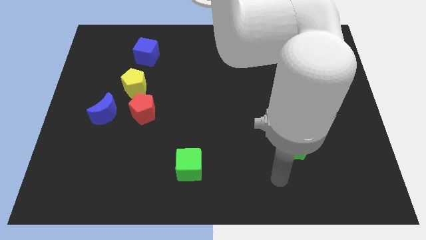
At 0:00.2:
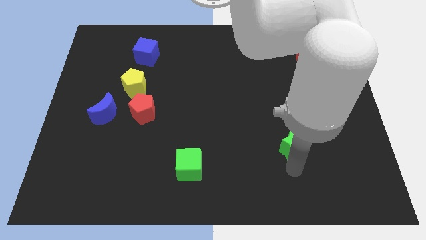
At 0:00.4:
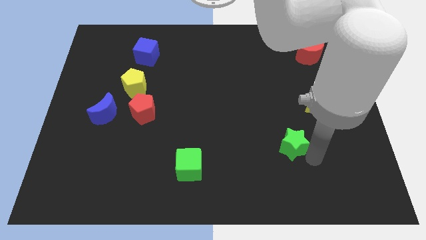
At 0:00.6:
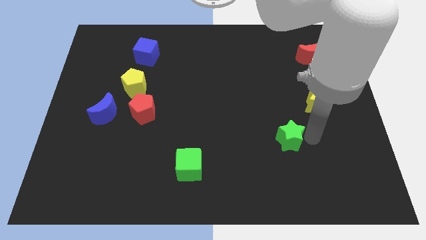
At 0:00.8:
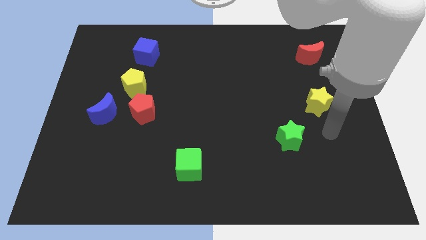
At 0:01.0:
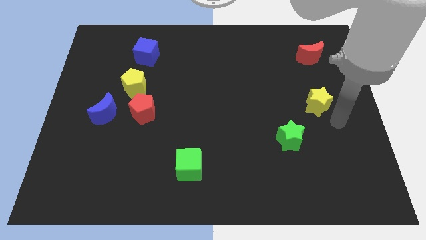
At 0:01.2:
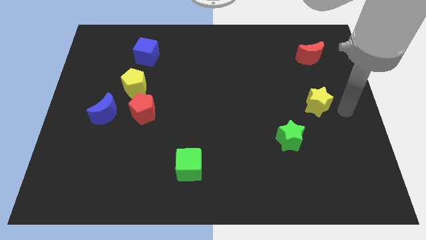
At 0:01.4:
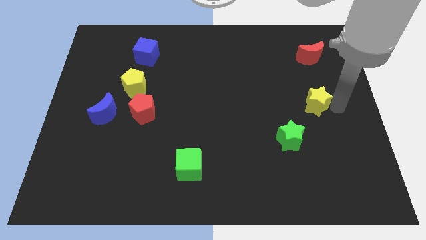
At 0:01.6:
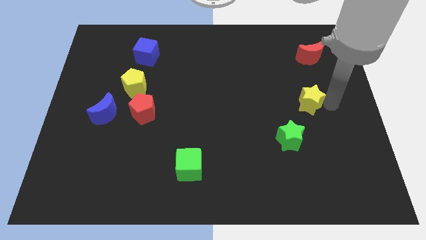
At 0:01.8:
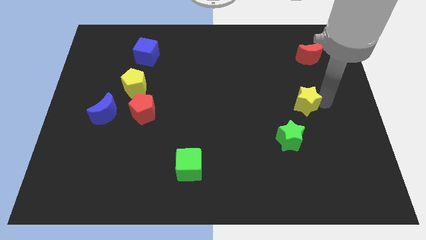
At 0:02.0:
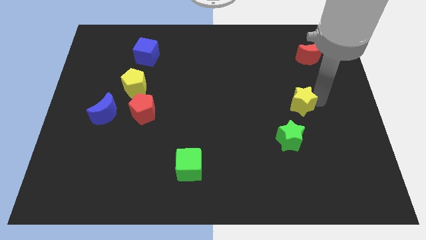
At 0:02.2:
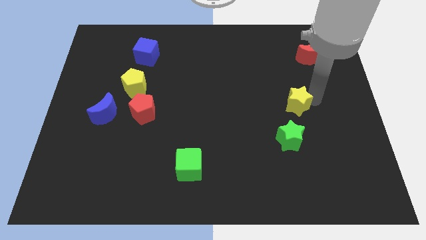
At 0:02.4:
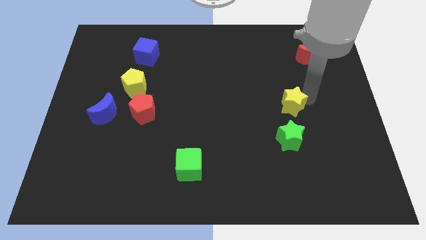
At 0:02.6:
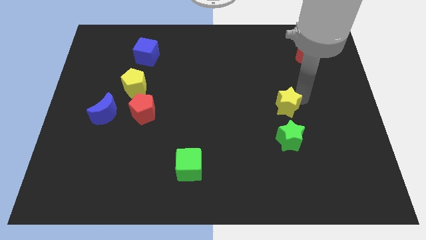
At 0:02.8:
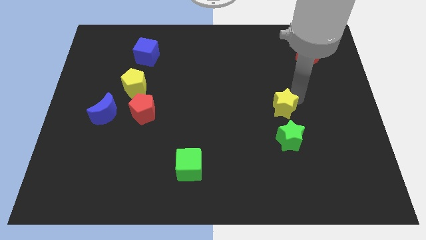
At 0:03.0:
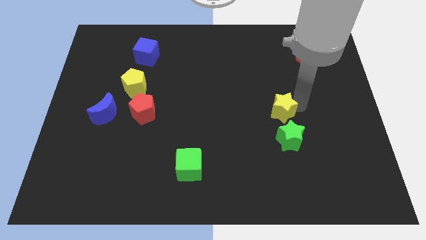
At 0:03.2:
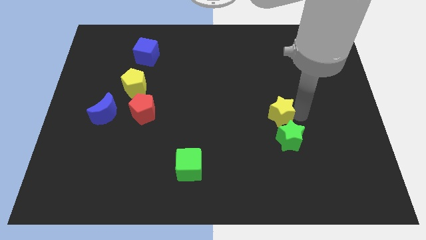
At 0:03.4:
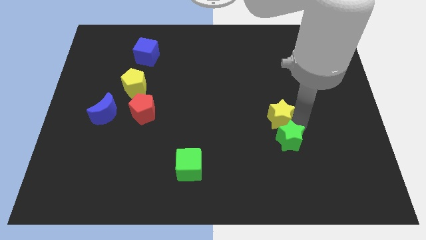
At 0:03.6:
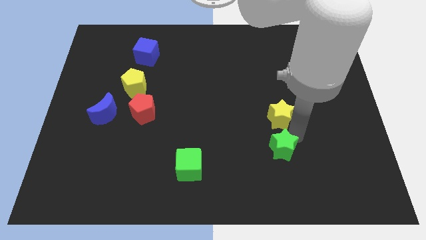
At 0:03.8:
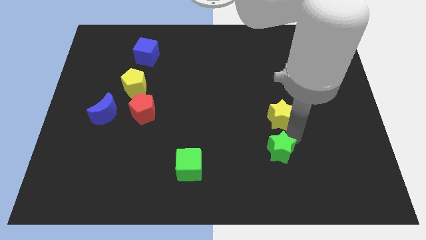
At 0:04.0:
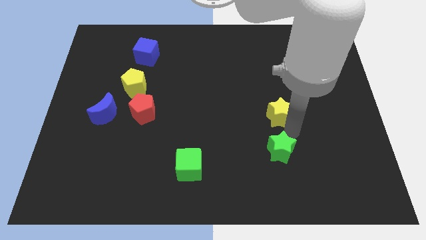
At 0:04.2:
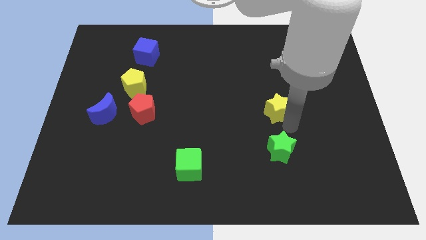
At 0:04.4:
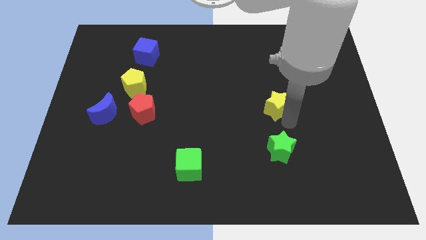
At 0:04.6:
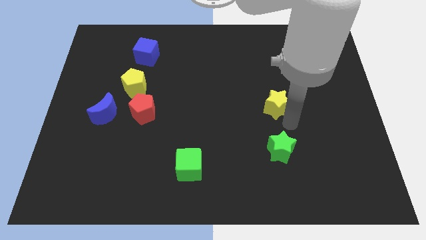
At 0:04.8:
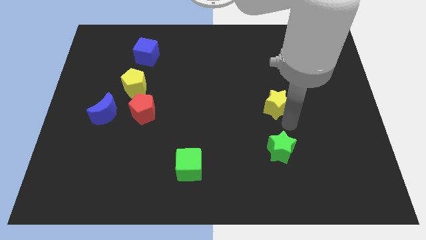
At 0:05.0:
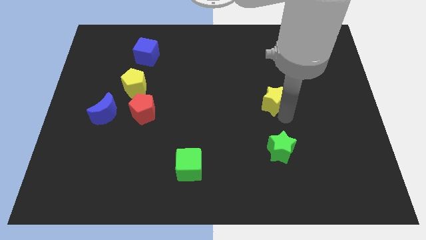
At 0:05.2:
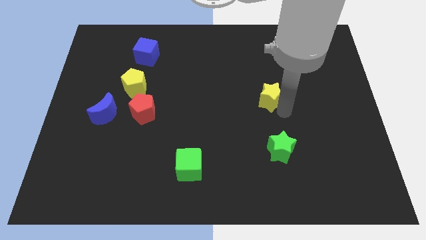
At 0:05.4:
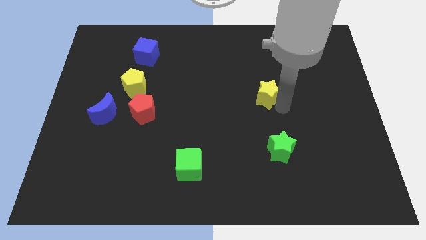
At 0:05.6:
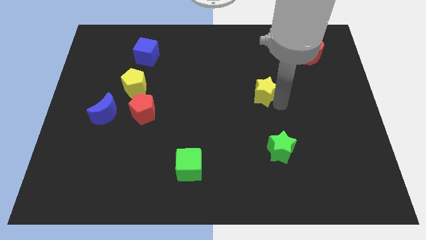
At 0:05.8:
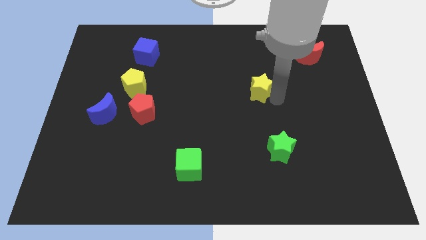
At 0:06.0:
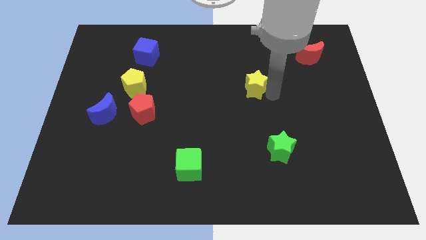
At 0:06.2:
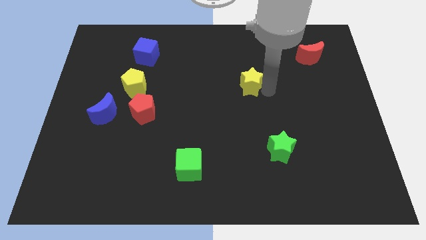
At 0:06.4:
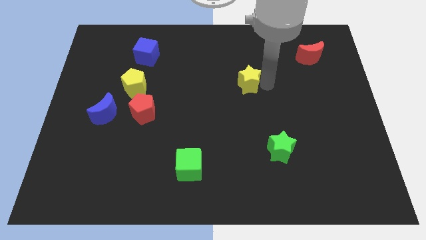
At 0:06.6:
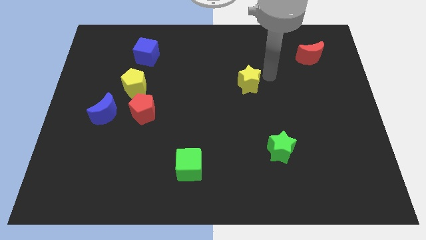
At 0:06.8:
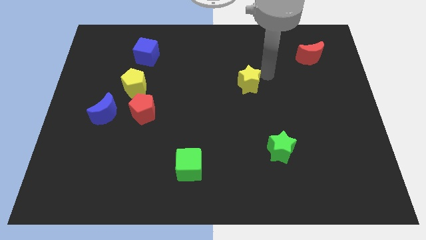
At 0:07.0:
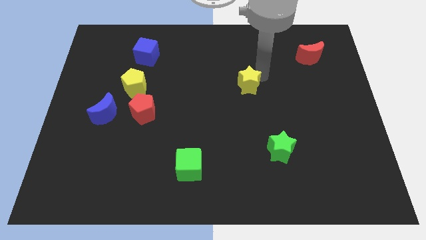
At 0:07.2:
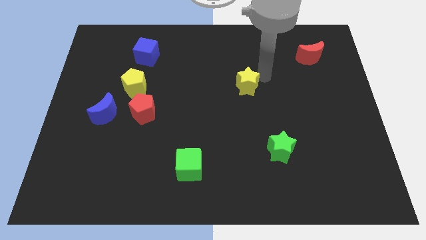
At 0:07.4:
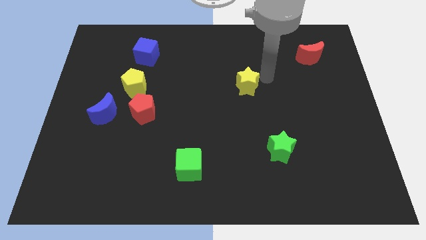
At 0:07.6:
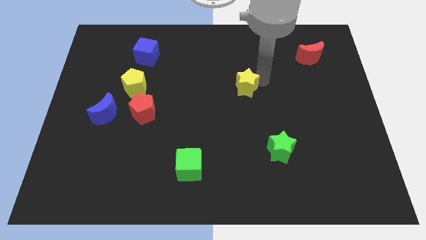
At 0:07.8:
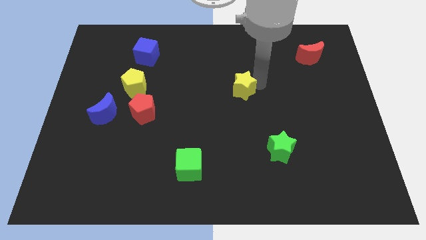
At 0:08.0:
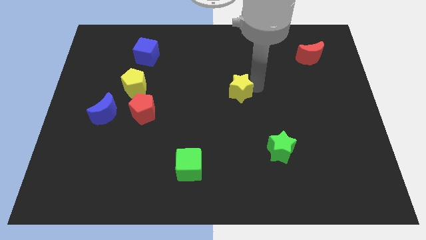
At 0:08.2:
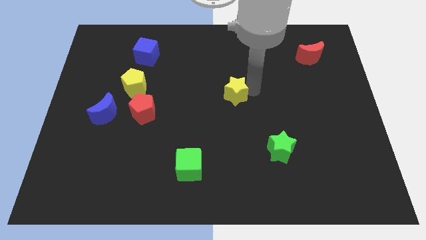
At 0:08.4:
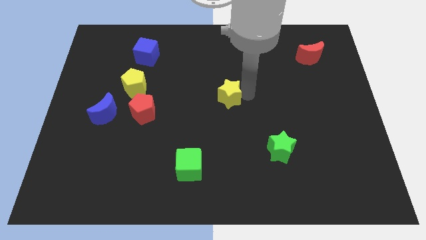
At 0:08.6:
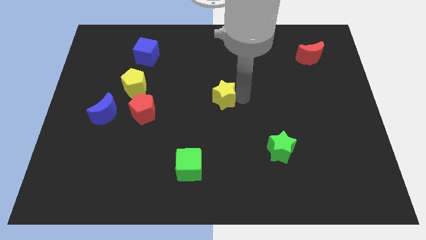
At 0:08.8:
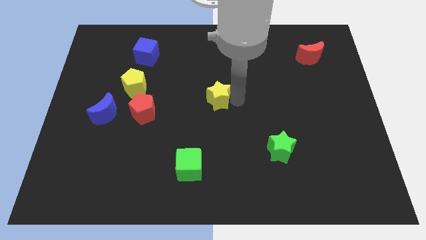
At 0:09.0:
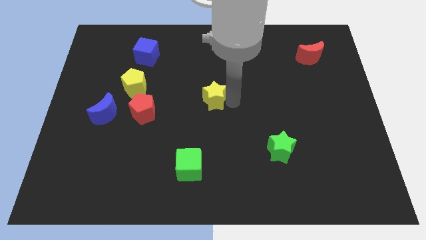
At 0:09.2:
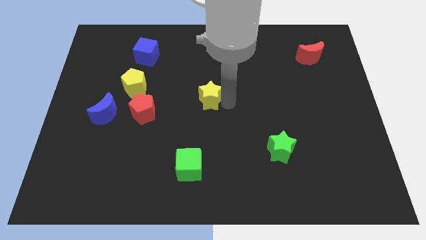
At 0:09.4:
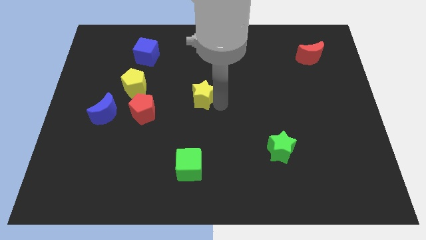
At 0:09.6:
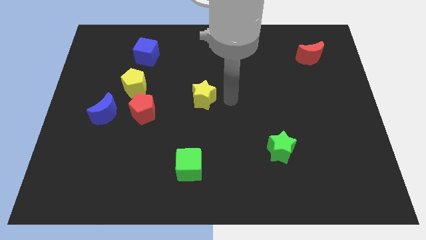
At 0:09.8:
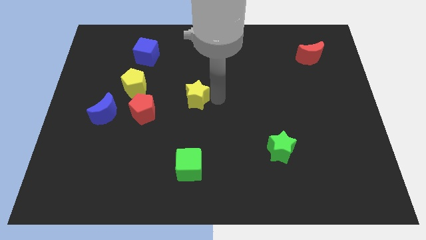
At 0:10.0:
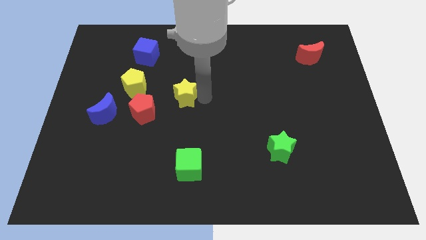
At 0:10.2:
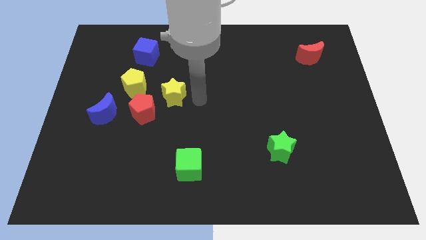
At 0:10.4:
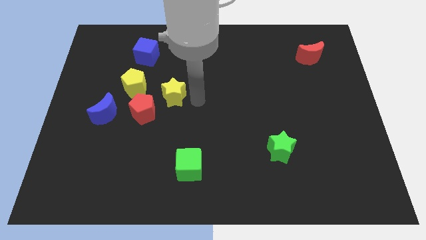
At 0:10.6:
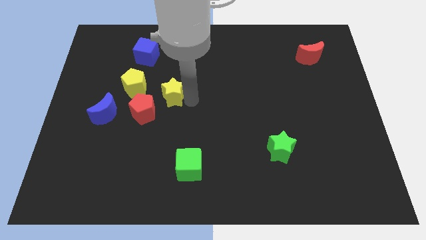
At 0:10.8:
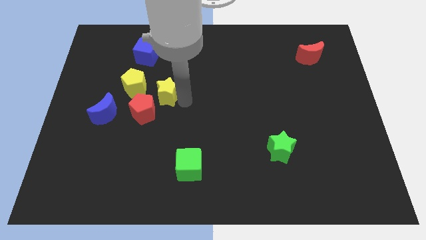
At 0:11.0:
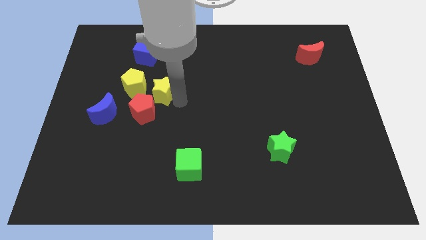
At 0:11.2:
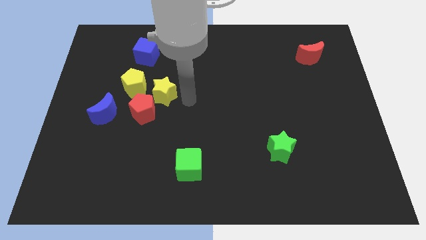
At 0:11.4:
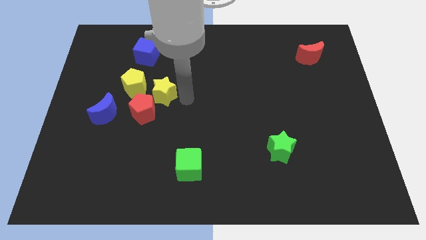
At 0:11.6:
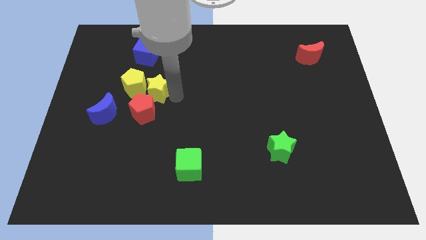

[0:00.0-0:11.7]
push the yellow star close to the yellow pentagon

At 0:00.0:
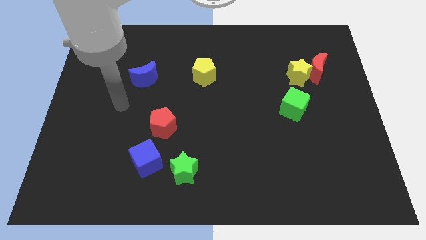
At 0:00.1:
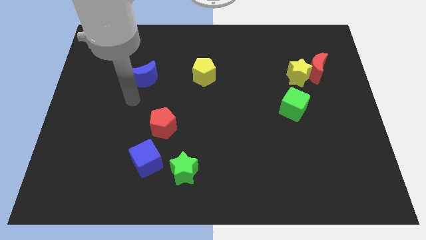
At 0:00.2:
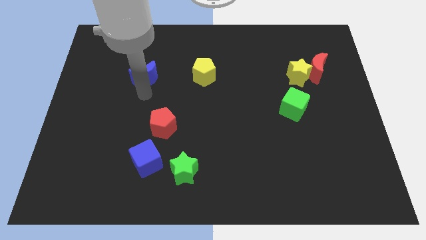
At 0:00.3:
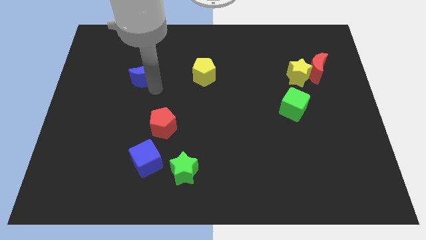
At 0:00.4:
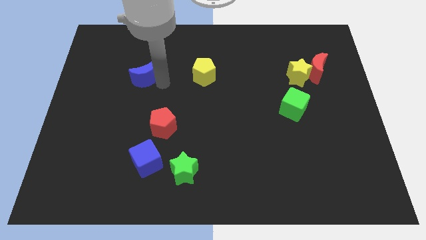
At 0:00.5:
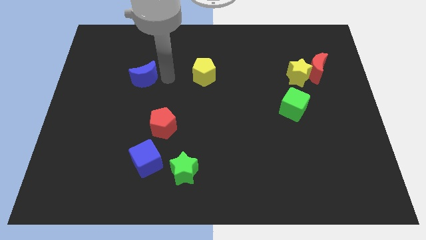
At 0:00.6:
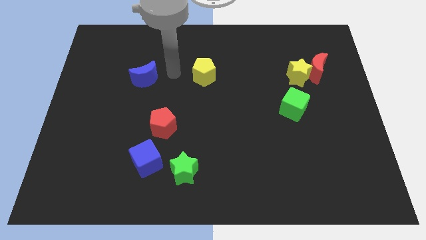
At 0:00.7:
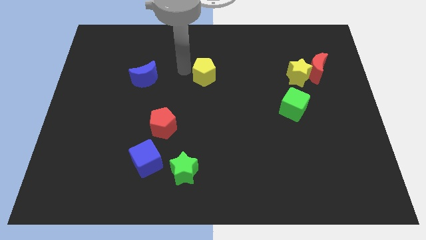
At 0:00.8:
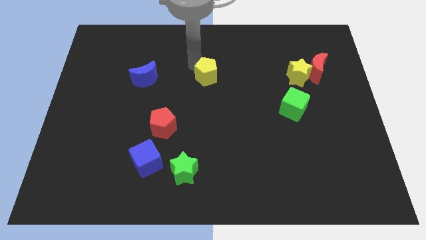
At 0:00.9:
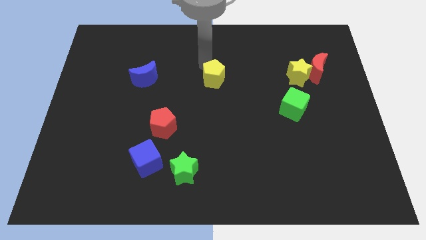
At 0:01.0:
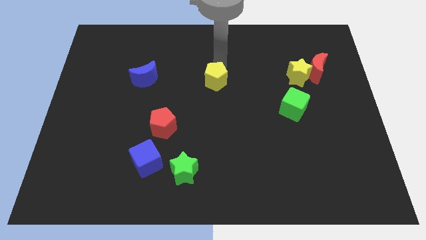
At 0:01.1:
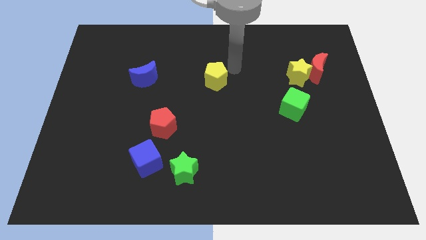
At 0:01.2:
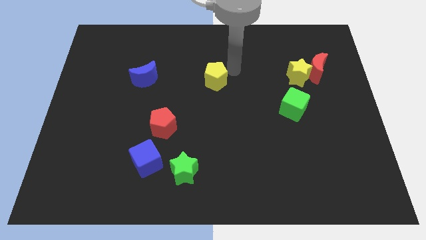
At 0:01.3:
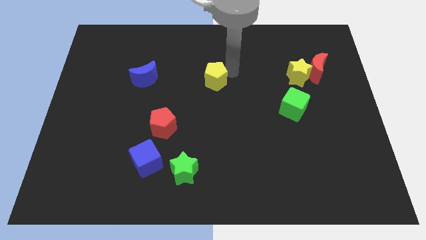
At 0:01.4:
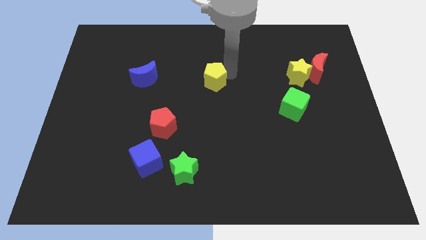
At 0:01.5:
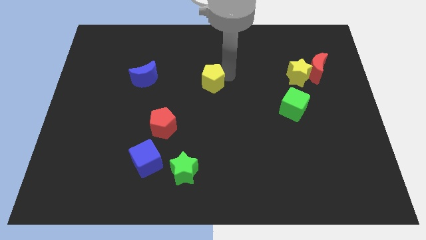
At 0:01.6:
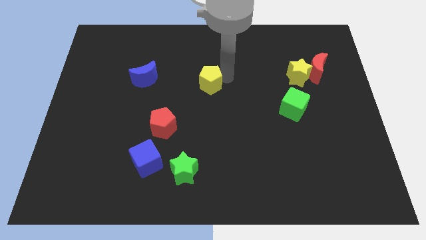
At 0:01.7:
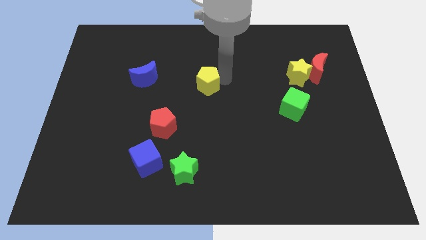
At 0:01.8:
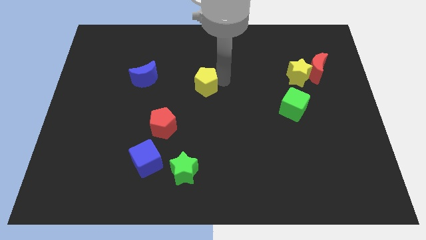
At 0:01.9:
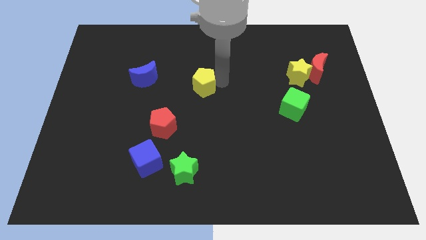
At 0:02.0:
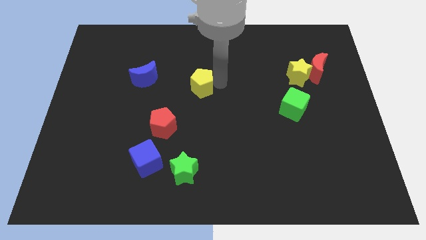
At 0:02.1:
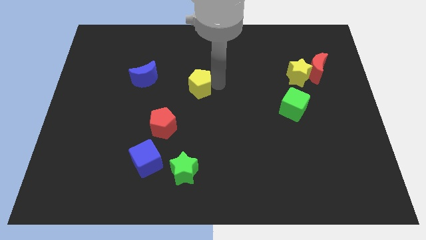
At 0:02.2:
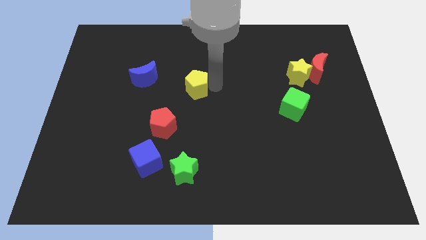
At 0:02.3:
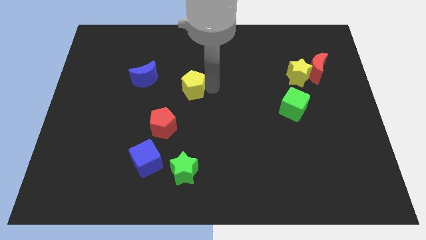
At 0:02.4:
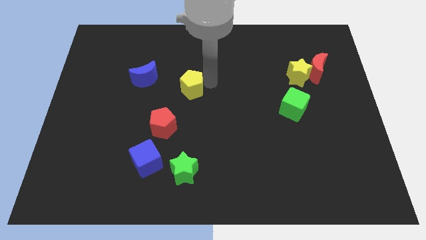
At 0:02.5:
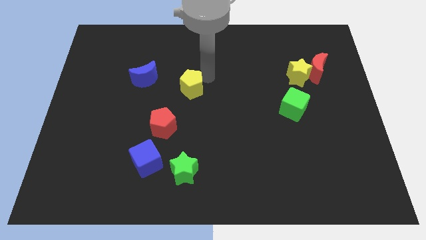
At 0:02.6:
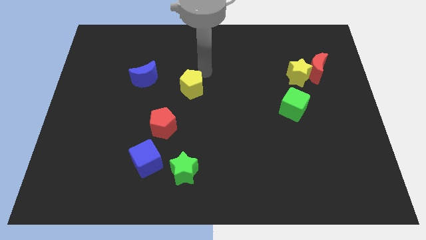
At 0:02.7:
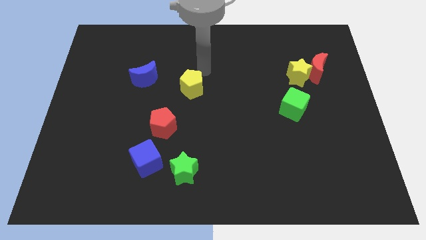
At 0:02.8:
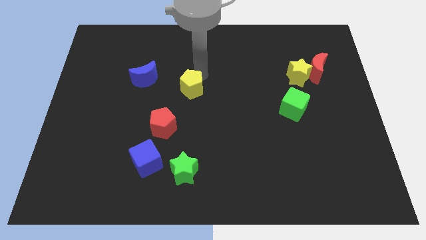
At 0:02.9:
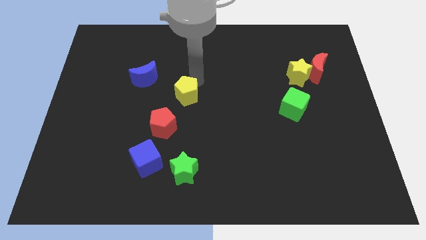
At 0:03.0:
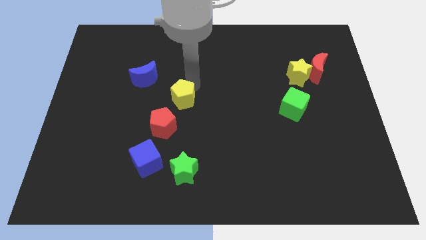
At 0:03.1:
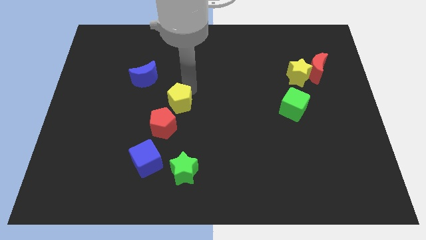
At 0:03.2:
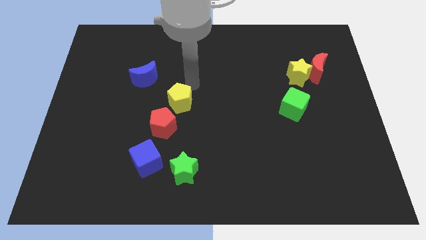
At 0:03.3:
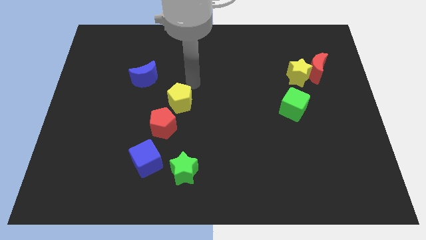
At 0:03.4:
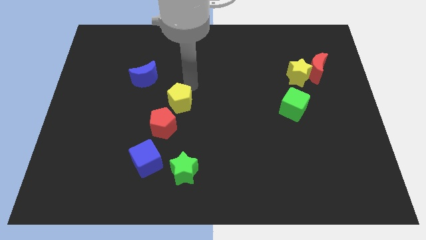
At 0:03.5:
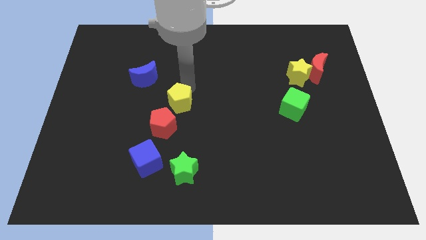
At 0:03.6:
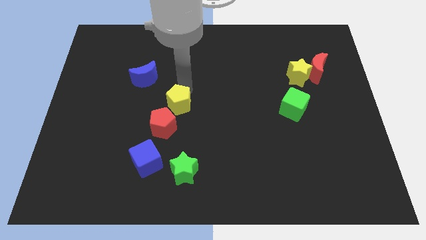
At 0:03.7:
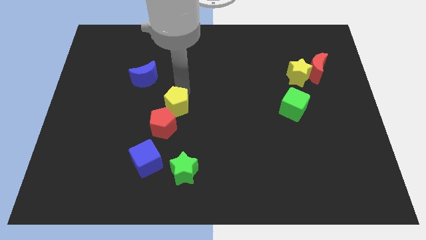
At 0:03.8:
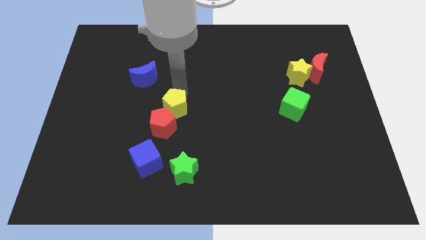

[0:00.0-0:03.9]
push the yellow pentagon towards the red pentagon
